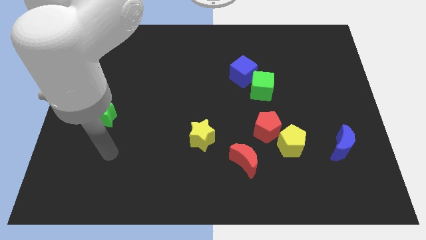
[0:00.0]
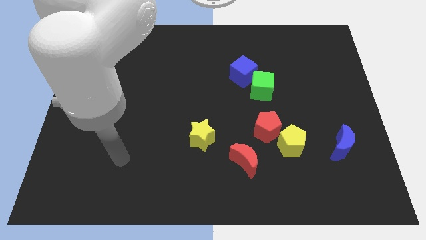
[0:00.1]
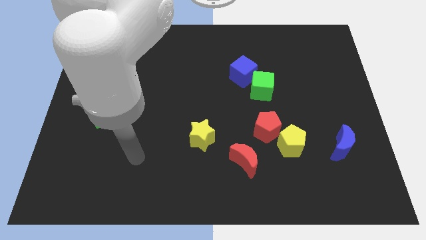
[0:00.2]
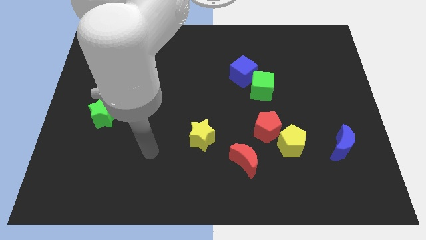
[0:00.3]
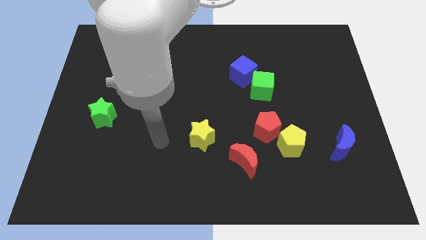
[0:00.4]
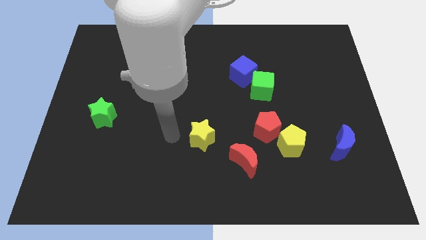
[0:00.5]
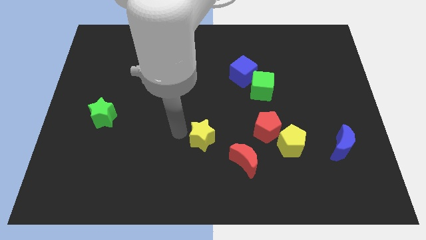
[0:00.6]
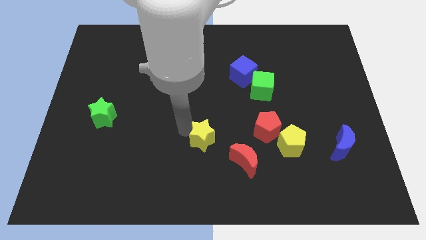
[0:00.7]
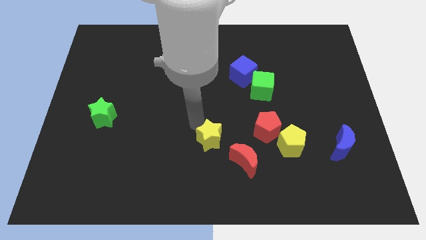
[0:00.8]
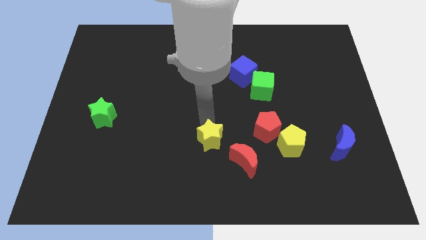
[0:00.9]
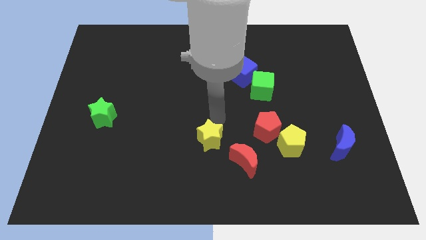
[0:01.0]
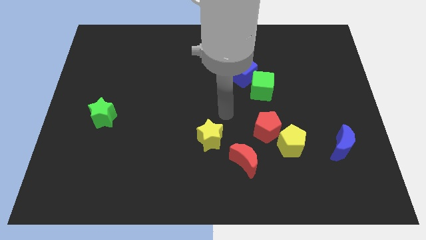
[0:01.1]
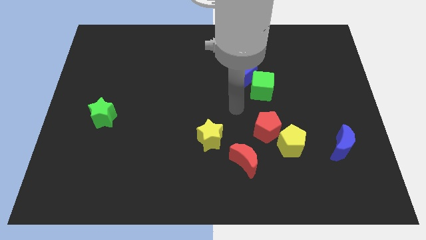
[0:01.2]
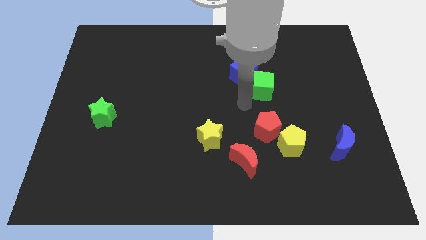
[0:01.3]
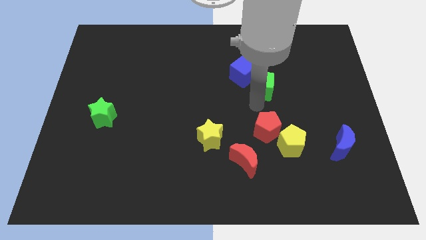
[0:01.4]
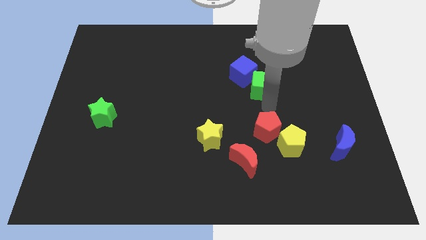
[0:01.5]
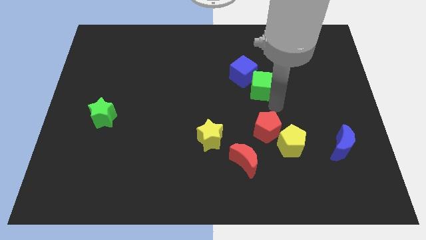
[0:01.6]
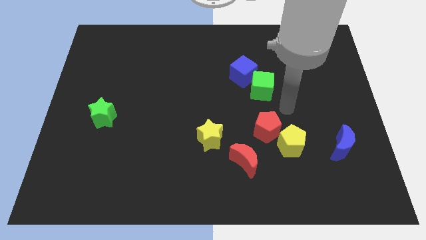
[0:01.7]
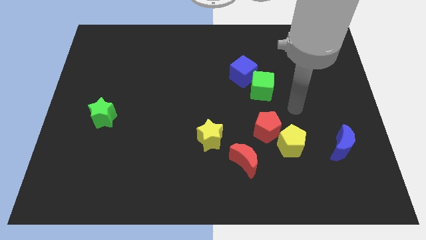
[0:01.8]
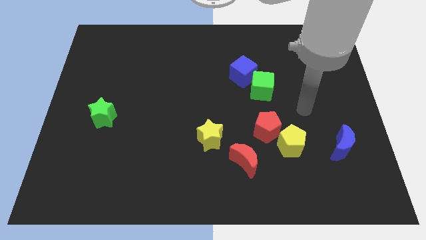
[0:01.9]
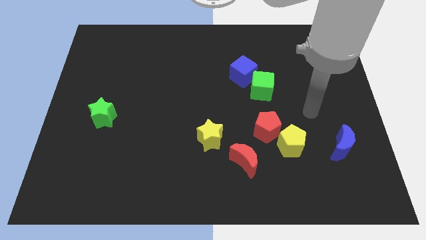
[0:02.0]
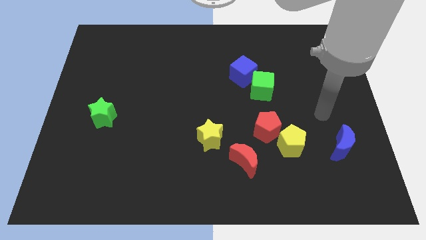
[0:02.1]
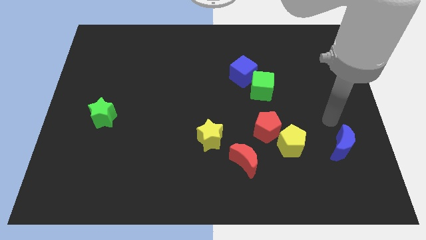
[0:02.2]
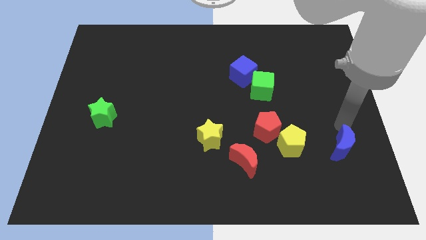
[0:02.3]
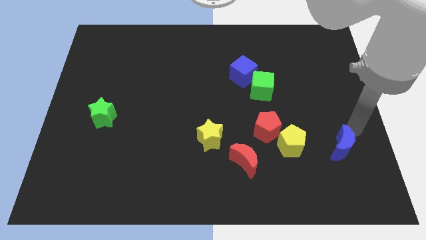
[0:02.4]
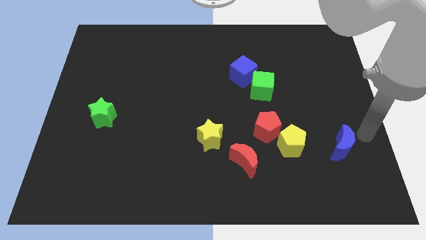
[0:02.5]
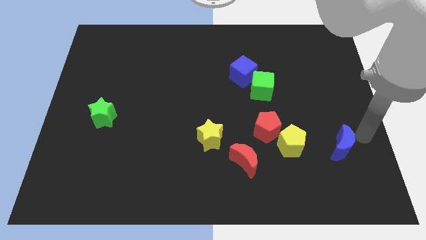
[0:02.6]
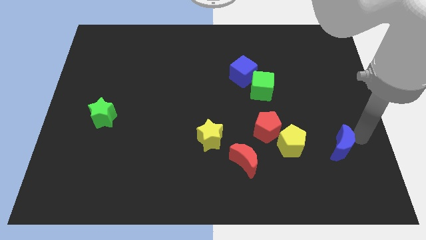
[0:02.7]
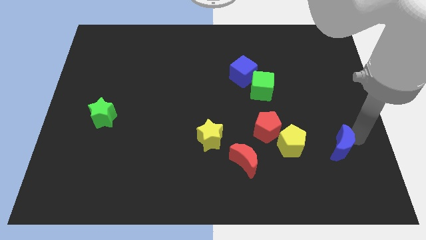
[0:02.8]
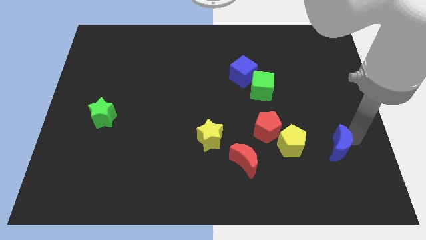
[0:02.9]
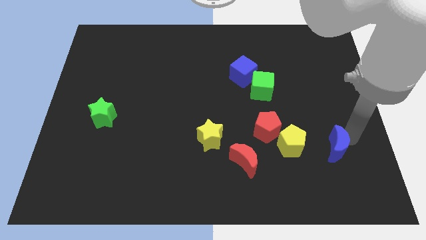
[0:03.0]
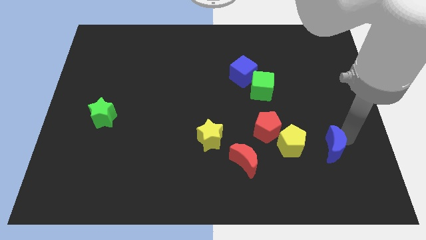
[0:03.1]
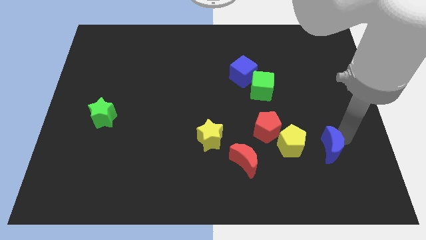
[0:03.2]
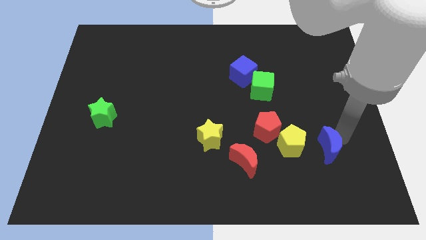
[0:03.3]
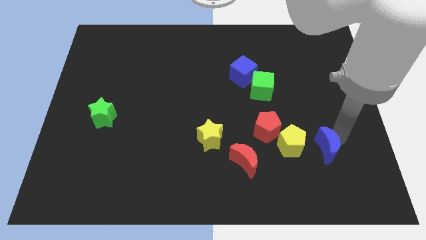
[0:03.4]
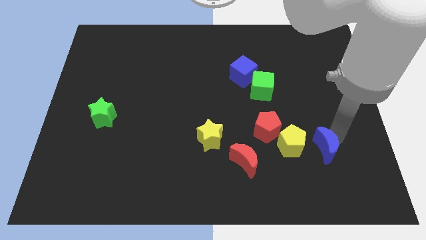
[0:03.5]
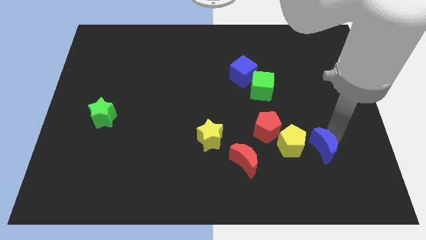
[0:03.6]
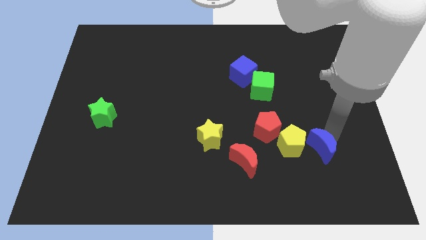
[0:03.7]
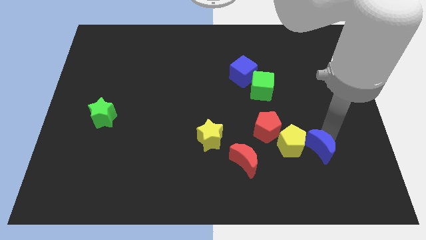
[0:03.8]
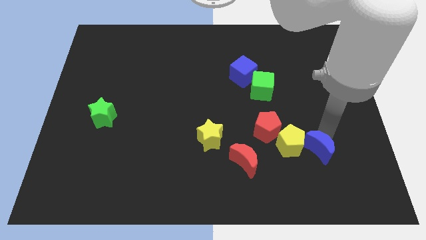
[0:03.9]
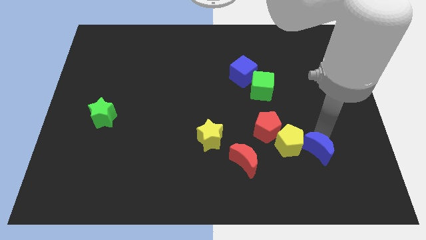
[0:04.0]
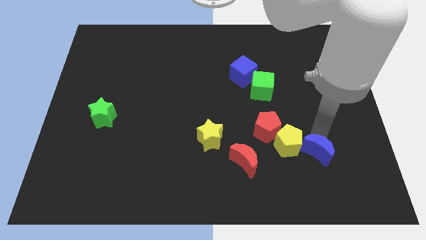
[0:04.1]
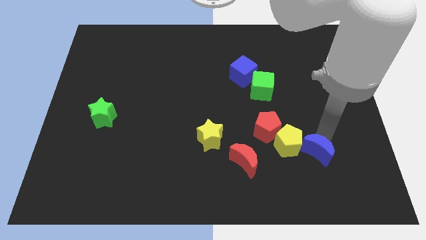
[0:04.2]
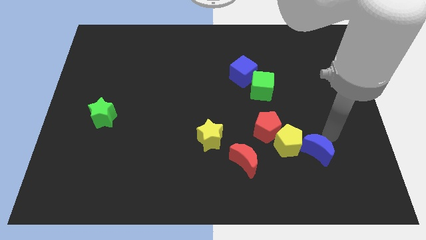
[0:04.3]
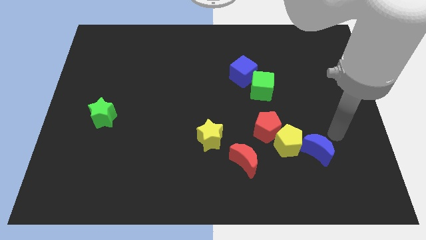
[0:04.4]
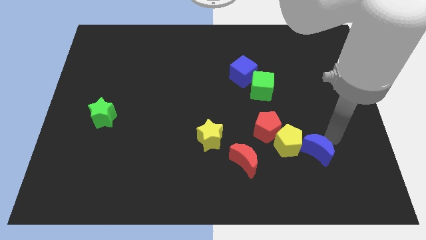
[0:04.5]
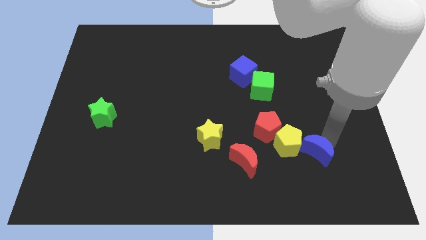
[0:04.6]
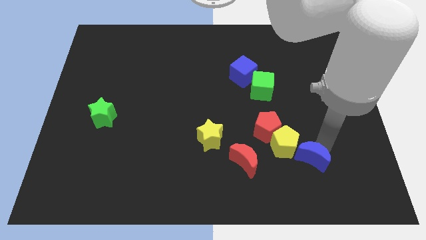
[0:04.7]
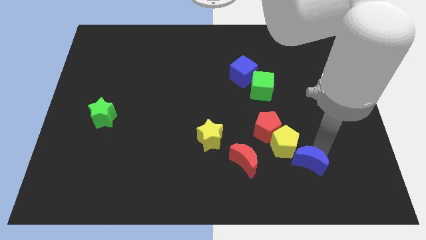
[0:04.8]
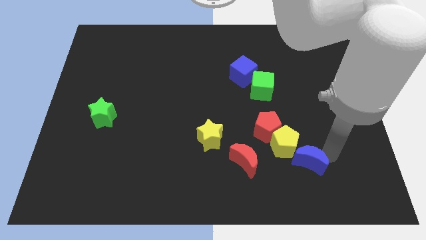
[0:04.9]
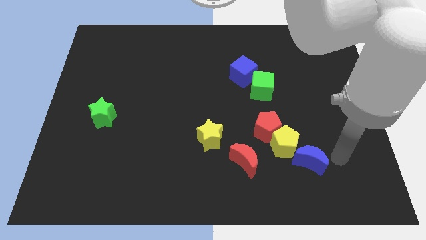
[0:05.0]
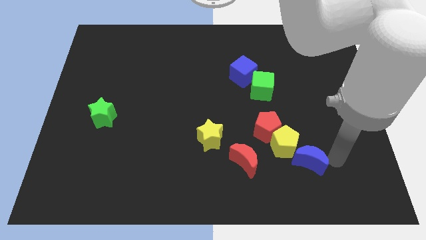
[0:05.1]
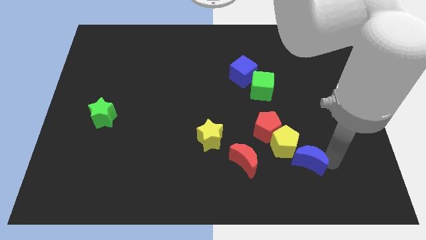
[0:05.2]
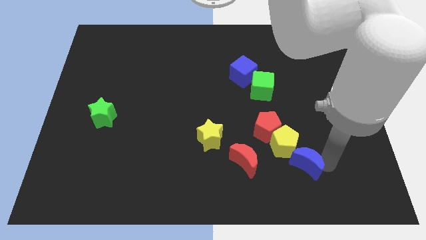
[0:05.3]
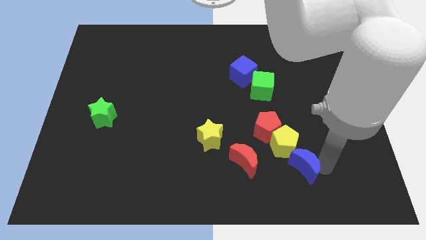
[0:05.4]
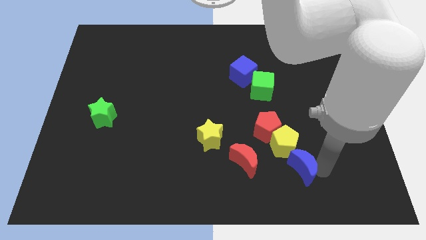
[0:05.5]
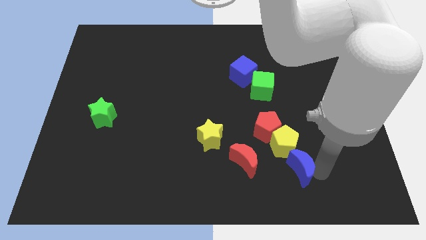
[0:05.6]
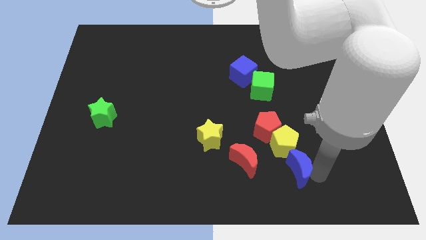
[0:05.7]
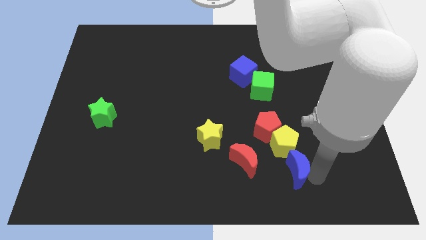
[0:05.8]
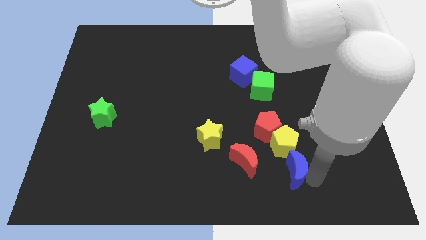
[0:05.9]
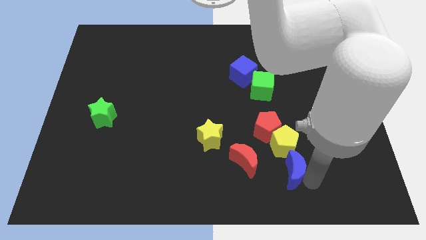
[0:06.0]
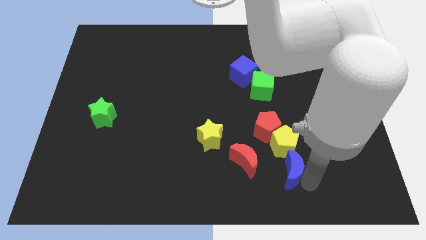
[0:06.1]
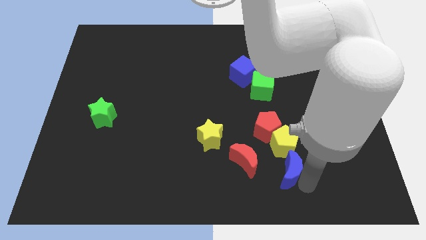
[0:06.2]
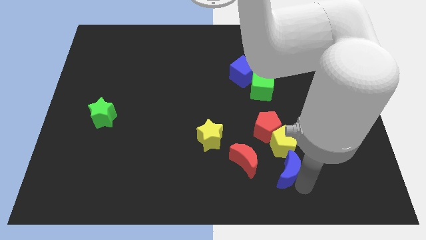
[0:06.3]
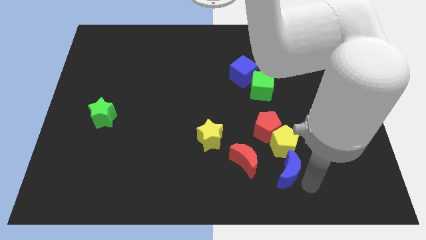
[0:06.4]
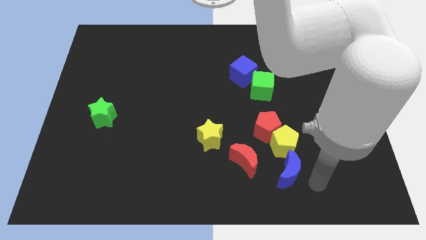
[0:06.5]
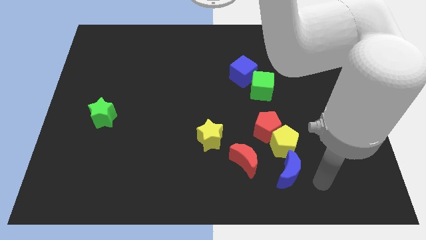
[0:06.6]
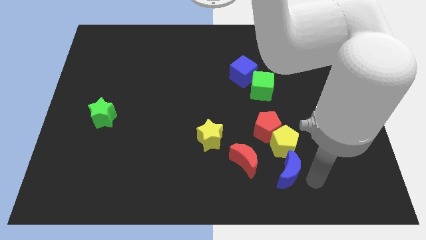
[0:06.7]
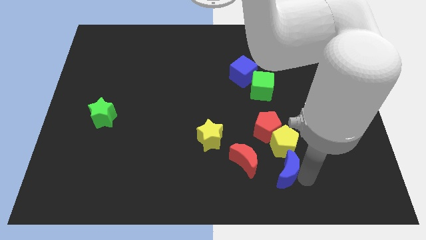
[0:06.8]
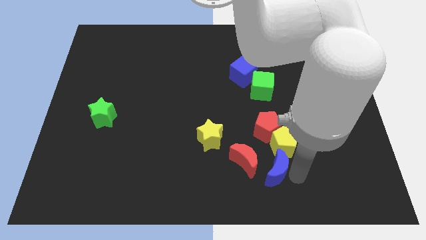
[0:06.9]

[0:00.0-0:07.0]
put the blue moon to the bottom left of the yellow pentagon
